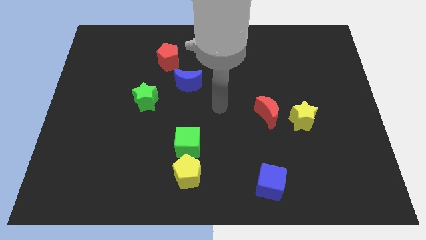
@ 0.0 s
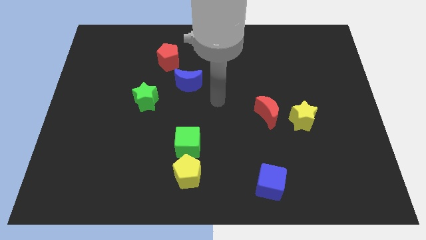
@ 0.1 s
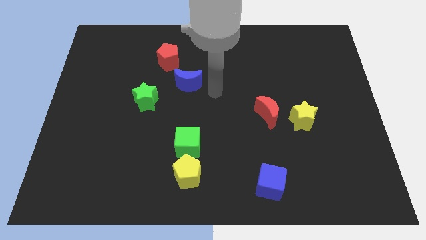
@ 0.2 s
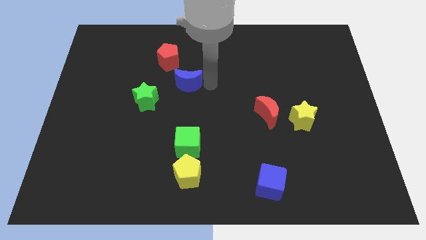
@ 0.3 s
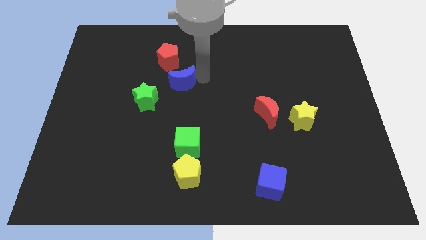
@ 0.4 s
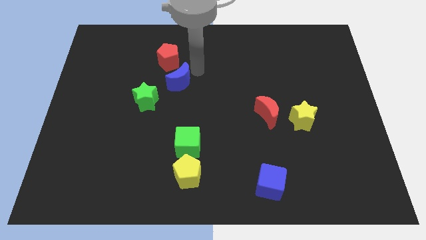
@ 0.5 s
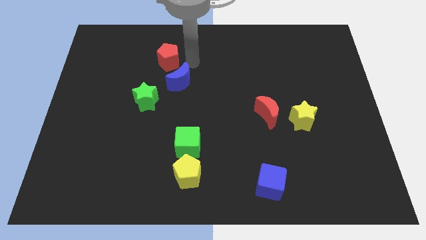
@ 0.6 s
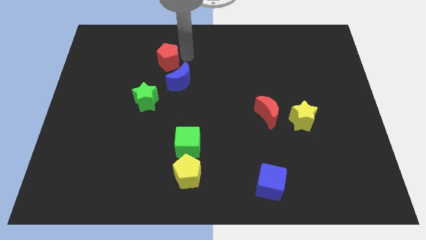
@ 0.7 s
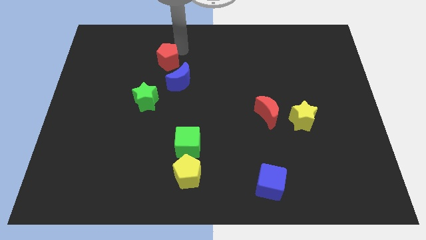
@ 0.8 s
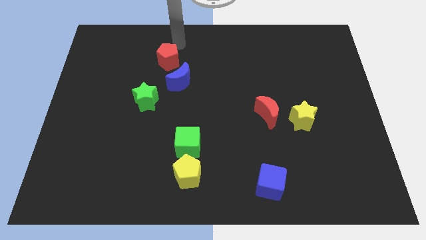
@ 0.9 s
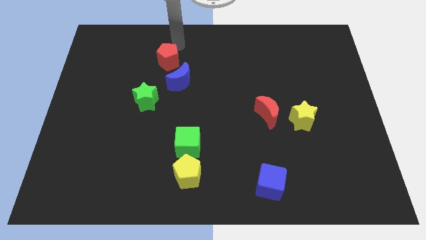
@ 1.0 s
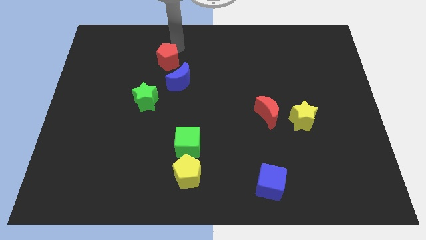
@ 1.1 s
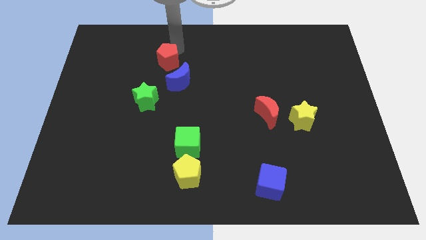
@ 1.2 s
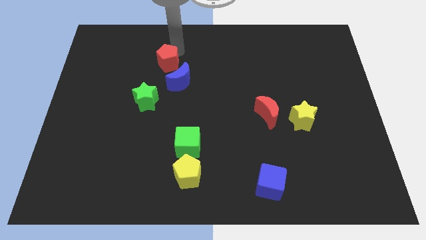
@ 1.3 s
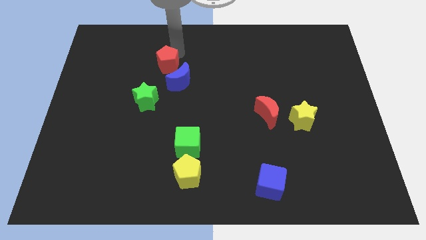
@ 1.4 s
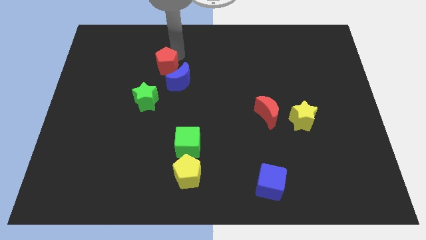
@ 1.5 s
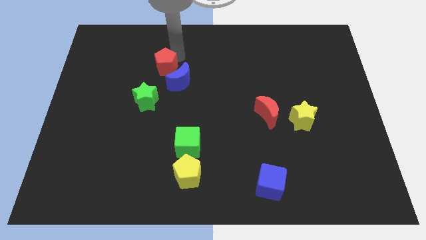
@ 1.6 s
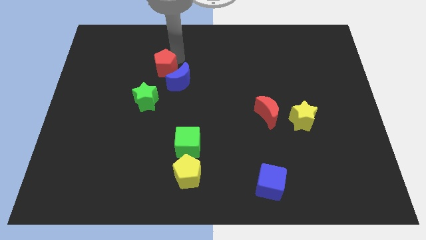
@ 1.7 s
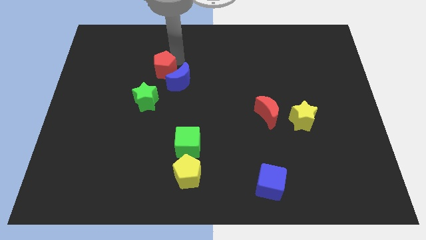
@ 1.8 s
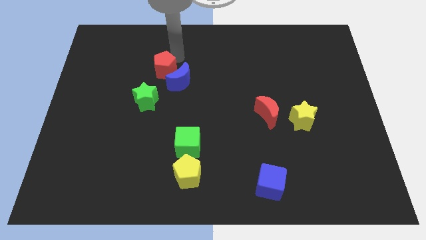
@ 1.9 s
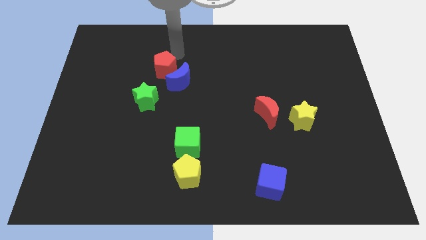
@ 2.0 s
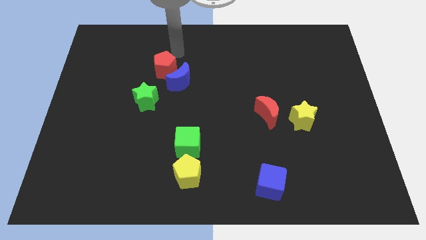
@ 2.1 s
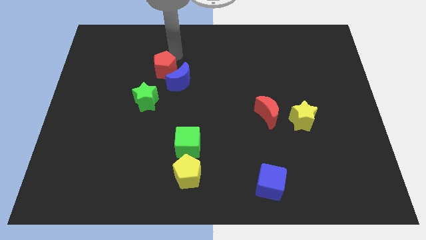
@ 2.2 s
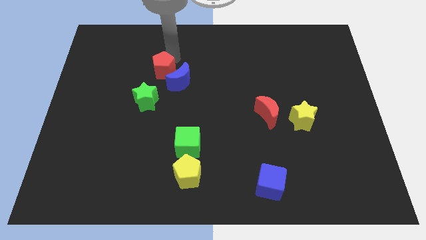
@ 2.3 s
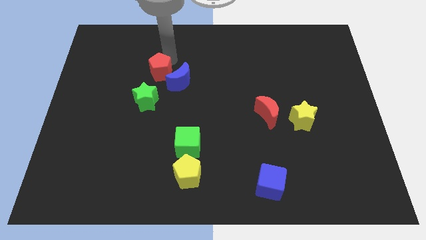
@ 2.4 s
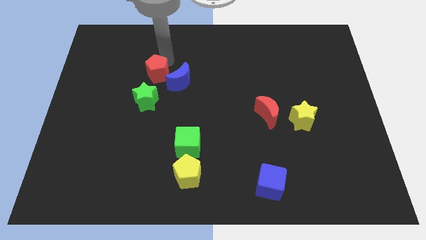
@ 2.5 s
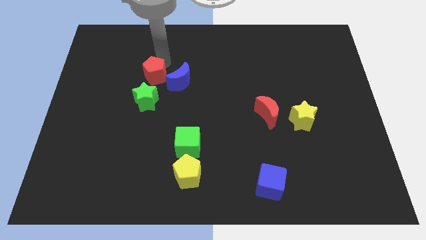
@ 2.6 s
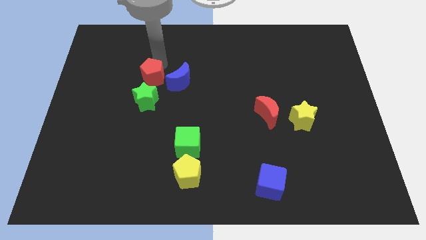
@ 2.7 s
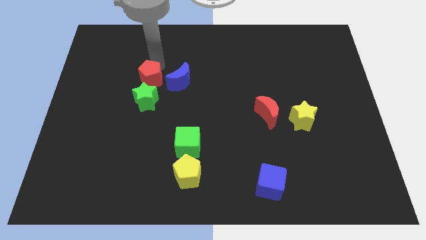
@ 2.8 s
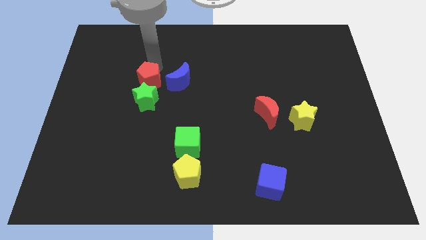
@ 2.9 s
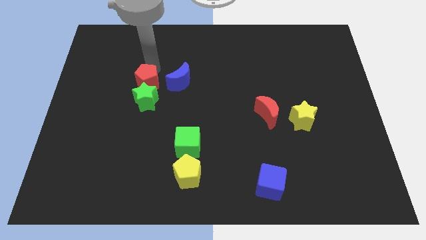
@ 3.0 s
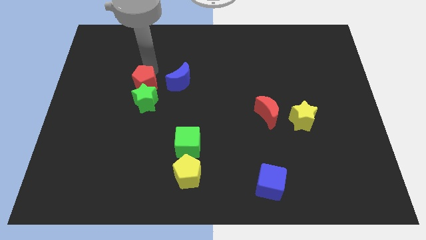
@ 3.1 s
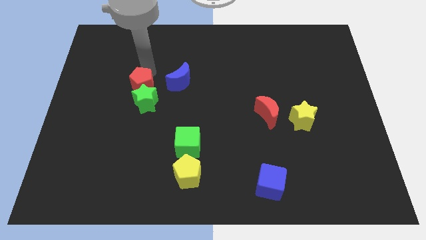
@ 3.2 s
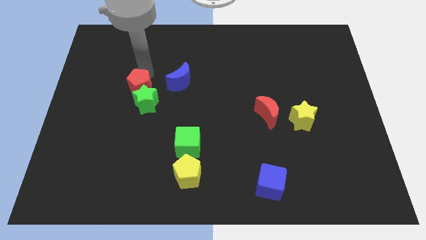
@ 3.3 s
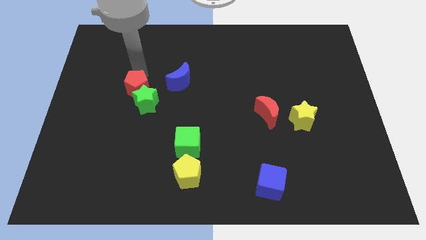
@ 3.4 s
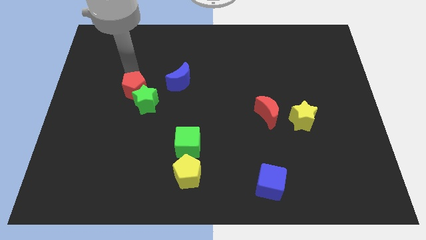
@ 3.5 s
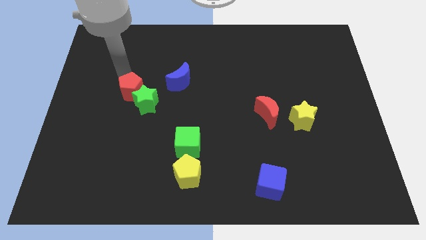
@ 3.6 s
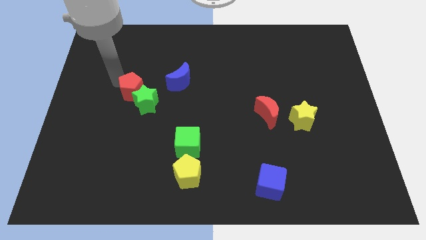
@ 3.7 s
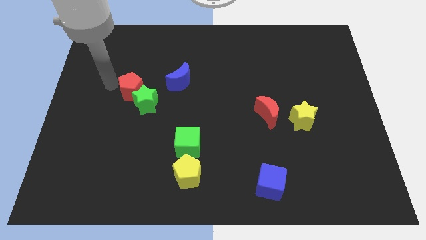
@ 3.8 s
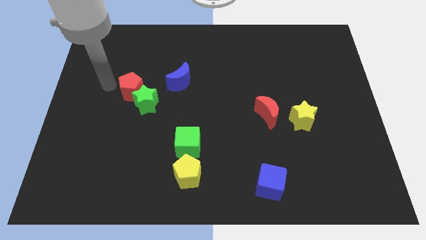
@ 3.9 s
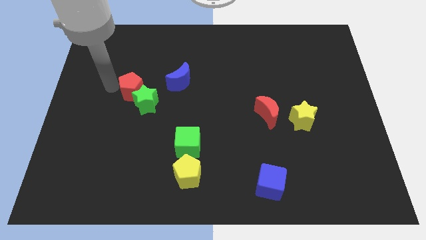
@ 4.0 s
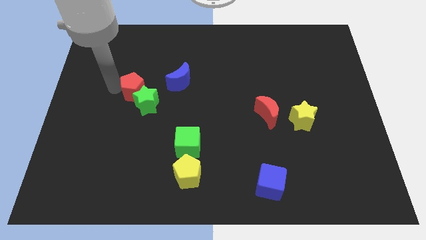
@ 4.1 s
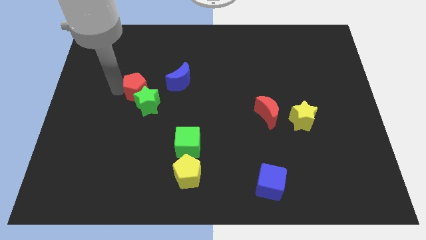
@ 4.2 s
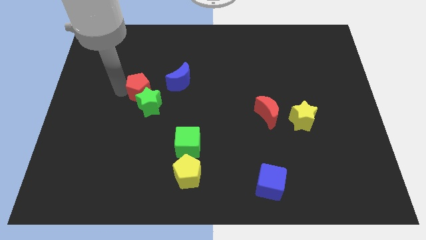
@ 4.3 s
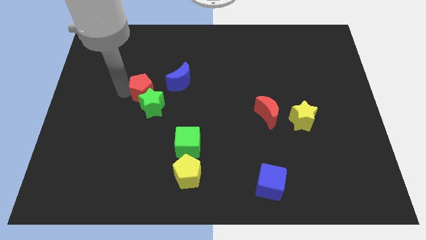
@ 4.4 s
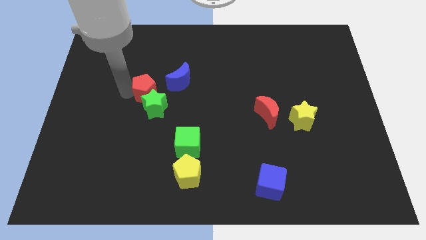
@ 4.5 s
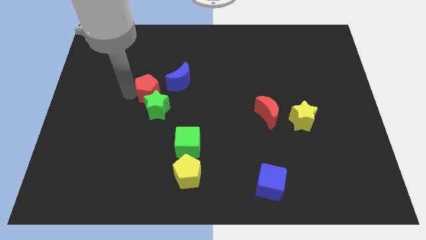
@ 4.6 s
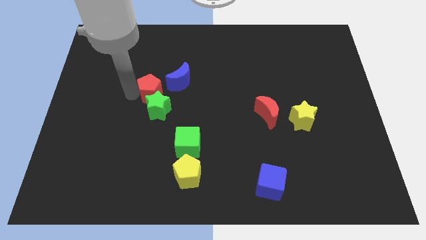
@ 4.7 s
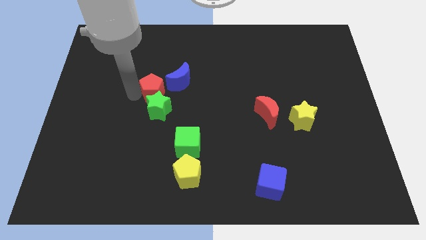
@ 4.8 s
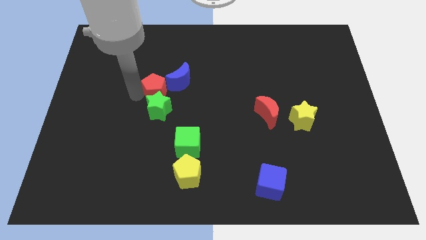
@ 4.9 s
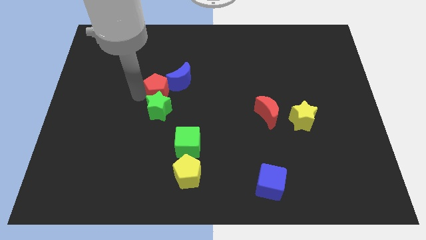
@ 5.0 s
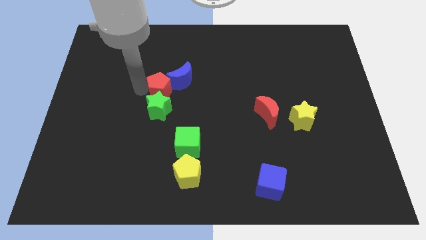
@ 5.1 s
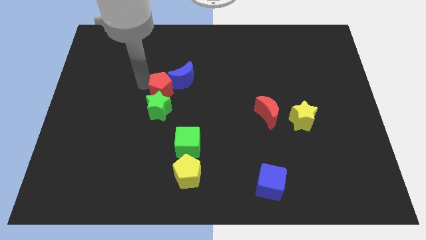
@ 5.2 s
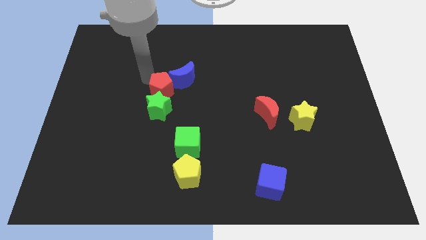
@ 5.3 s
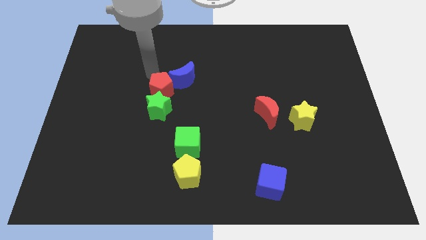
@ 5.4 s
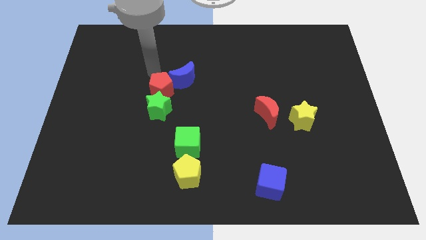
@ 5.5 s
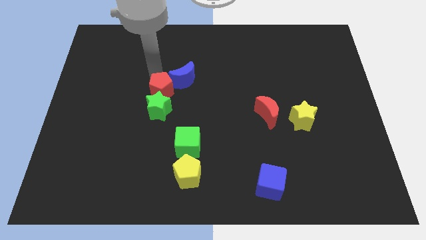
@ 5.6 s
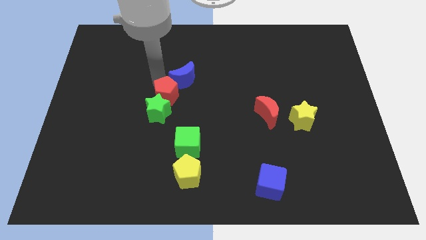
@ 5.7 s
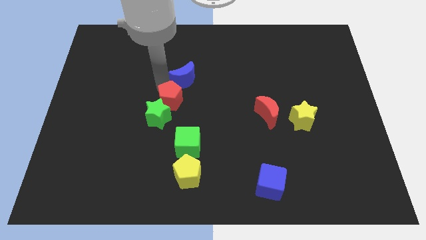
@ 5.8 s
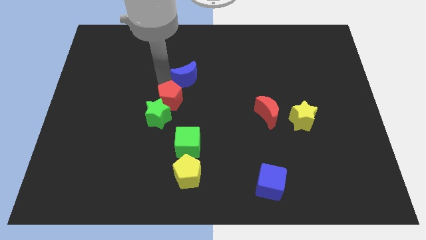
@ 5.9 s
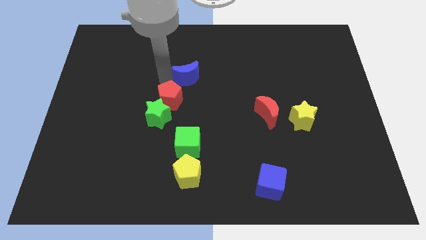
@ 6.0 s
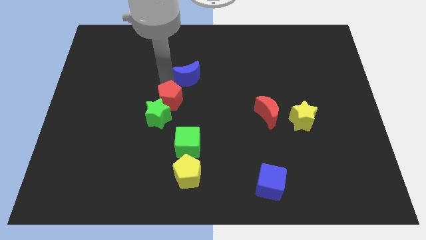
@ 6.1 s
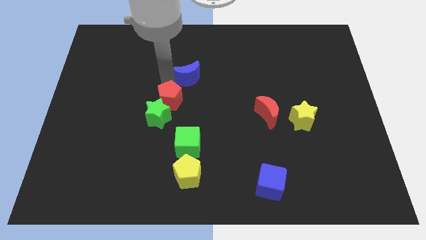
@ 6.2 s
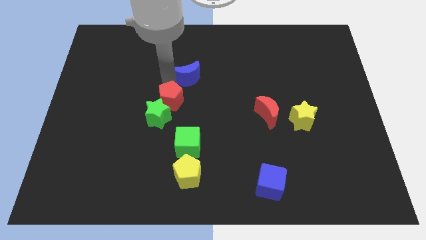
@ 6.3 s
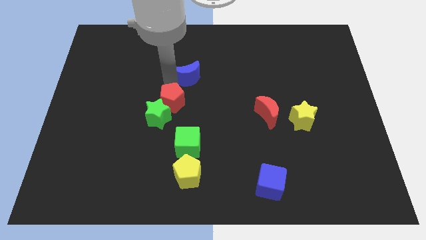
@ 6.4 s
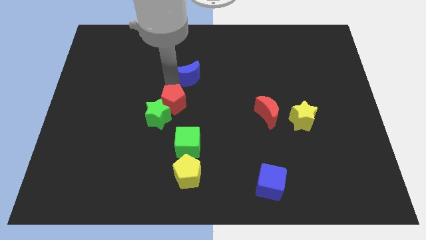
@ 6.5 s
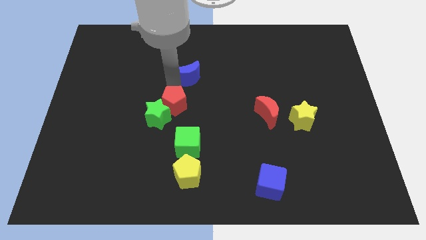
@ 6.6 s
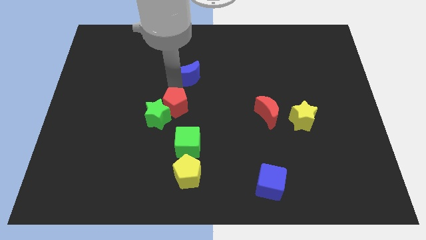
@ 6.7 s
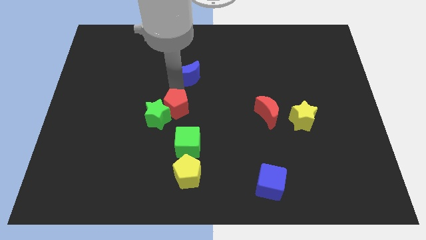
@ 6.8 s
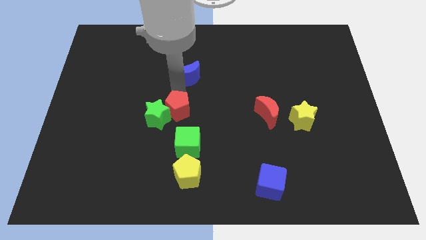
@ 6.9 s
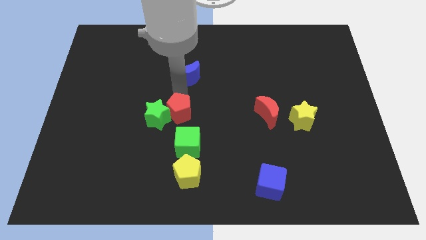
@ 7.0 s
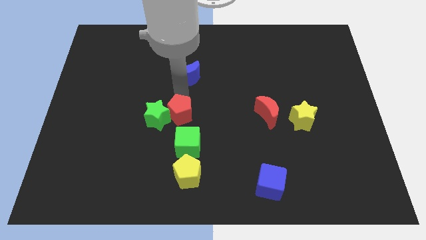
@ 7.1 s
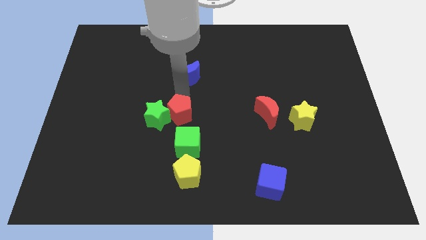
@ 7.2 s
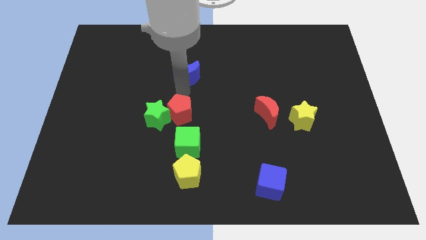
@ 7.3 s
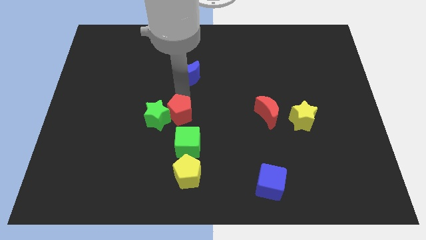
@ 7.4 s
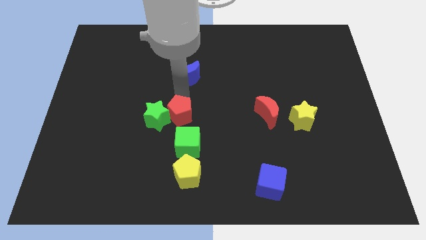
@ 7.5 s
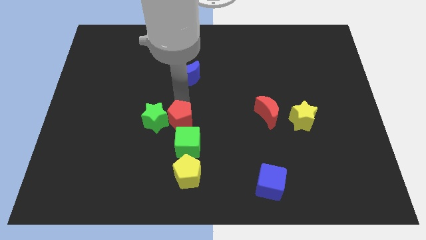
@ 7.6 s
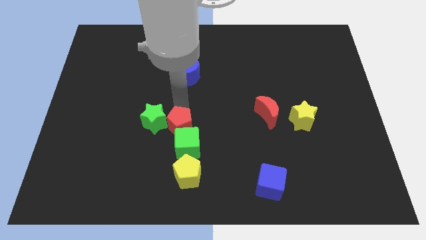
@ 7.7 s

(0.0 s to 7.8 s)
slide the red pentagon next to the green cube
